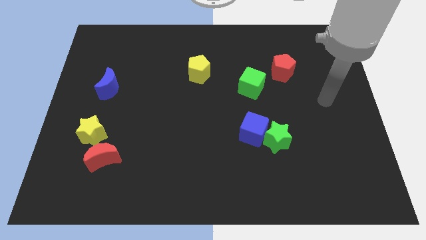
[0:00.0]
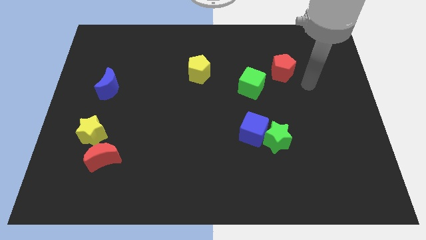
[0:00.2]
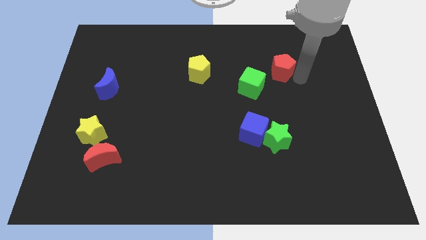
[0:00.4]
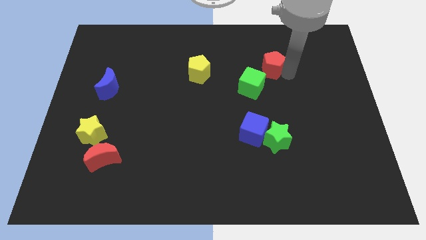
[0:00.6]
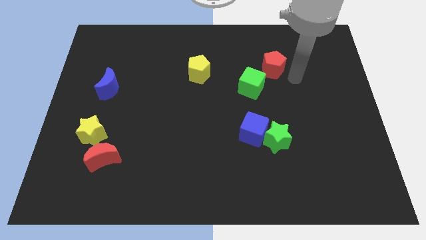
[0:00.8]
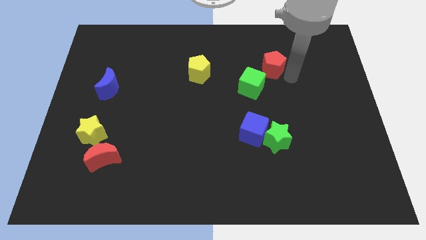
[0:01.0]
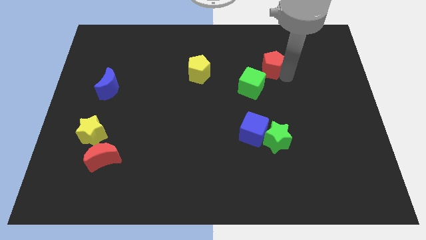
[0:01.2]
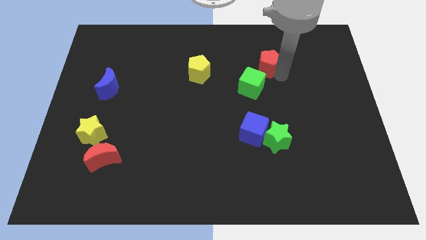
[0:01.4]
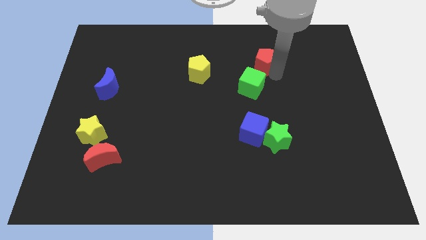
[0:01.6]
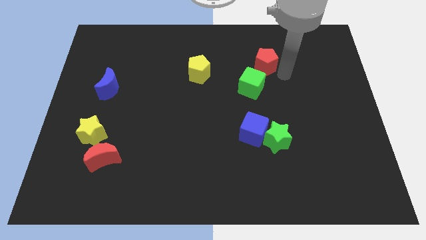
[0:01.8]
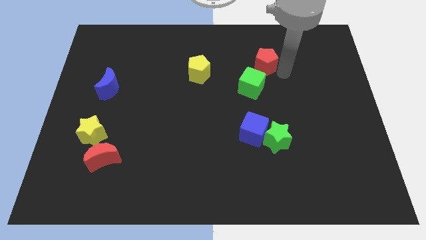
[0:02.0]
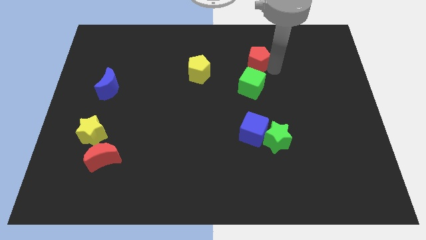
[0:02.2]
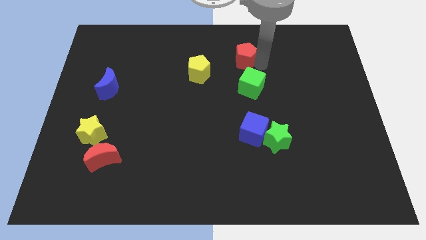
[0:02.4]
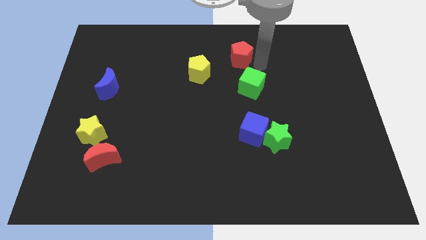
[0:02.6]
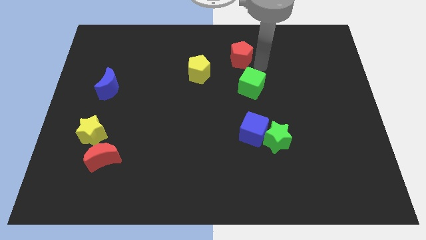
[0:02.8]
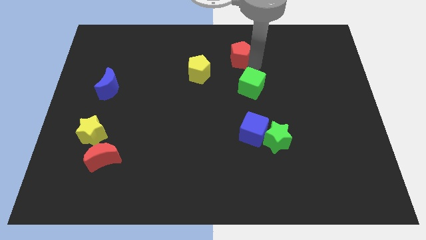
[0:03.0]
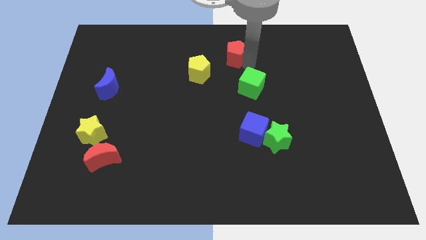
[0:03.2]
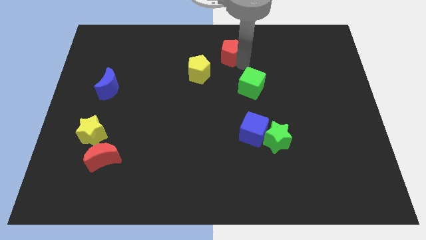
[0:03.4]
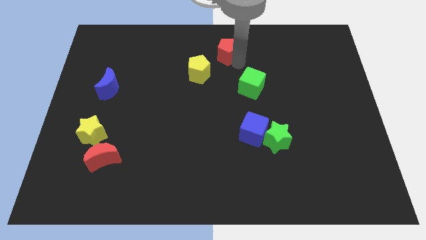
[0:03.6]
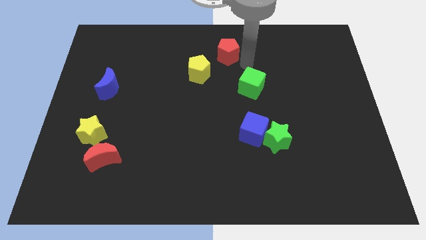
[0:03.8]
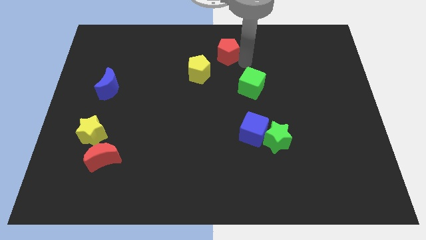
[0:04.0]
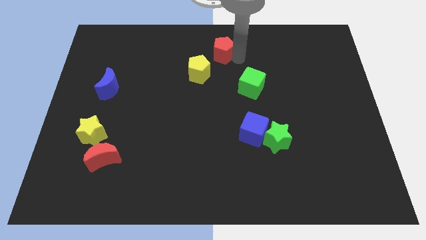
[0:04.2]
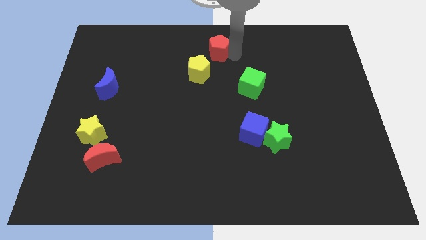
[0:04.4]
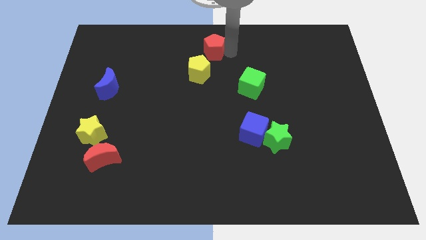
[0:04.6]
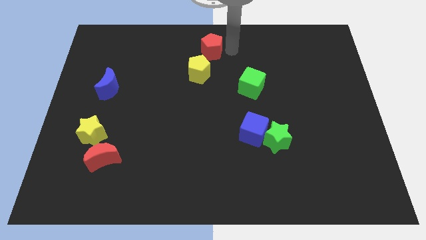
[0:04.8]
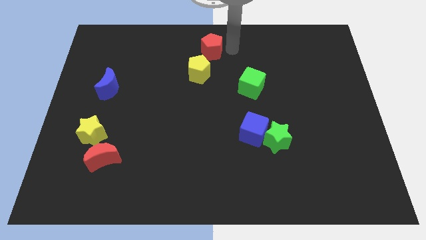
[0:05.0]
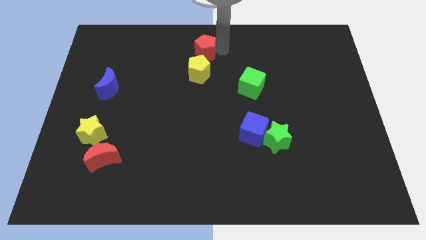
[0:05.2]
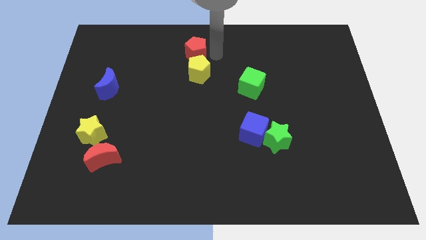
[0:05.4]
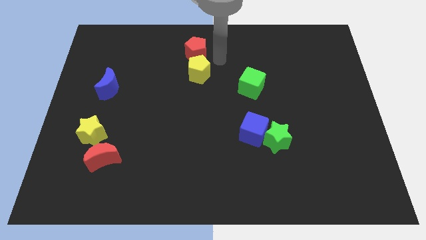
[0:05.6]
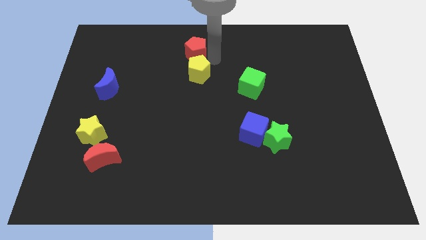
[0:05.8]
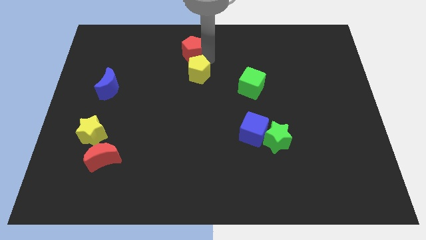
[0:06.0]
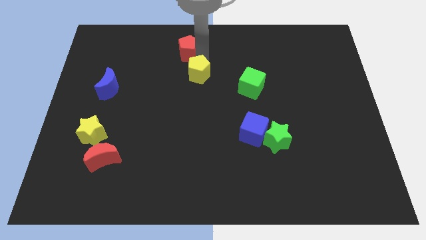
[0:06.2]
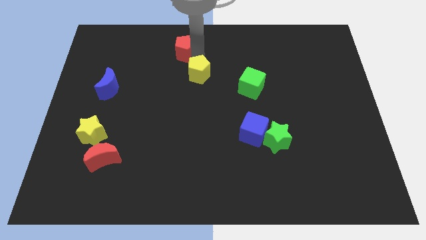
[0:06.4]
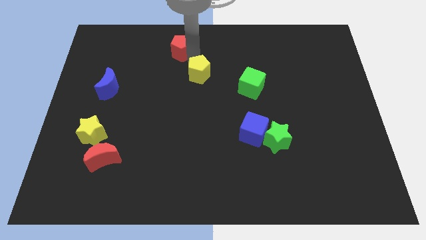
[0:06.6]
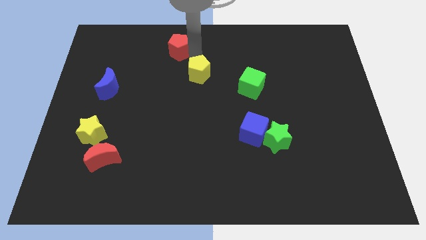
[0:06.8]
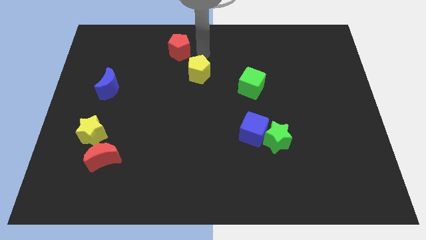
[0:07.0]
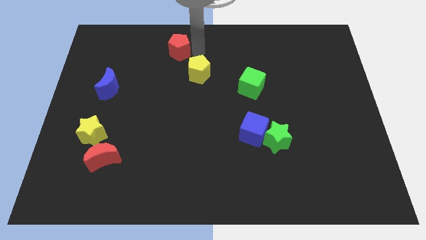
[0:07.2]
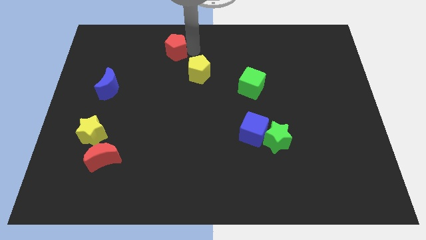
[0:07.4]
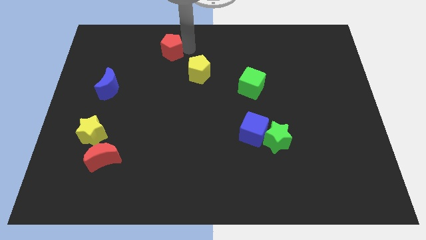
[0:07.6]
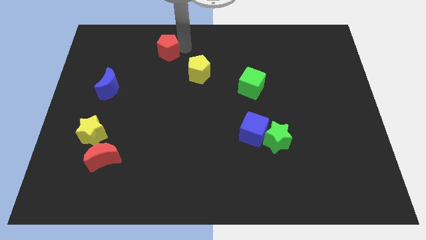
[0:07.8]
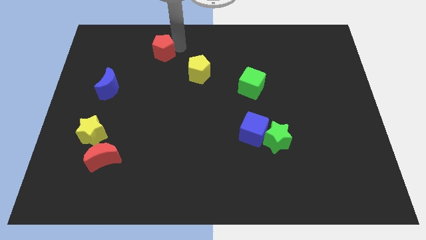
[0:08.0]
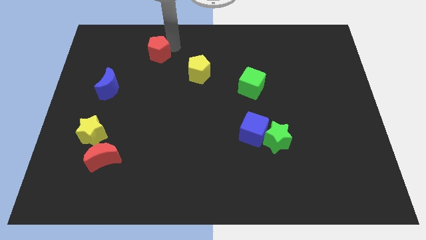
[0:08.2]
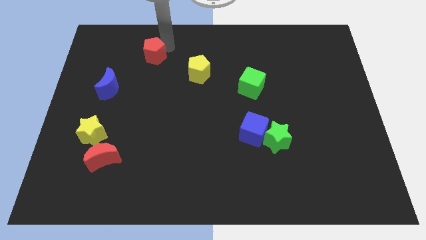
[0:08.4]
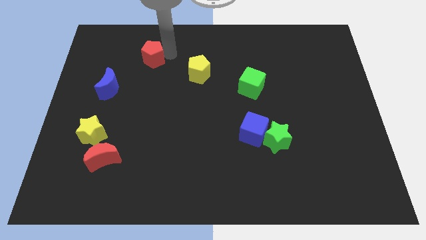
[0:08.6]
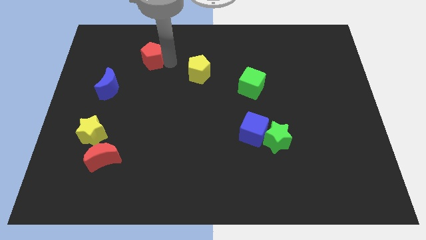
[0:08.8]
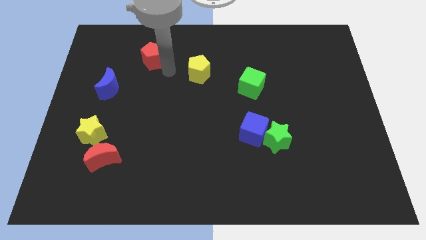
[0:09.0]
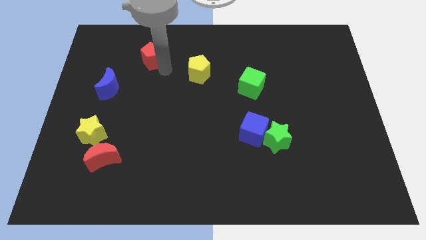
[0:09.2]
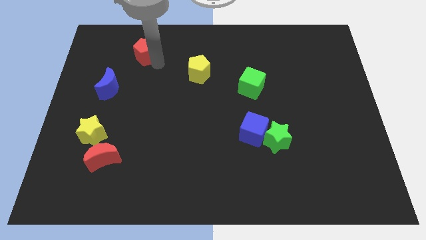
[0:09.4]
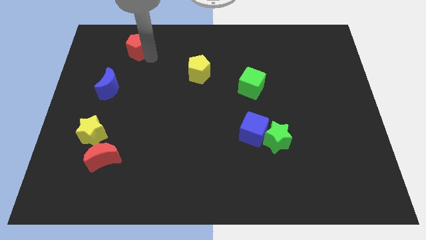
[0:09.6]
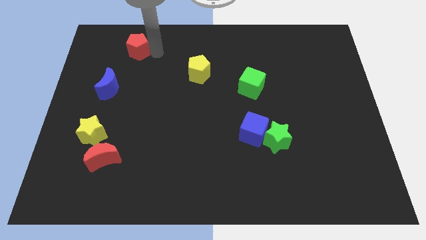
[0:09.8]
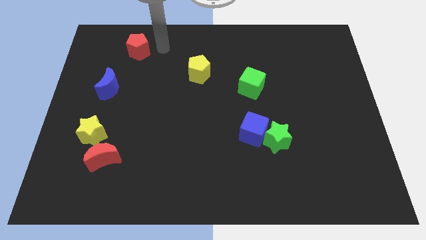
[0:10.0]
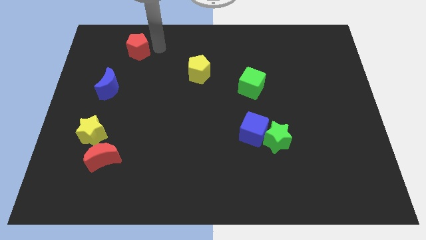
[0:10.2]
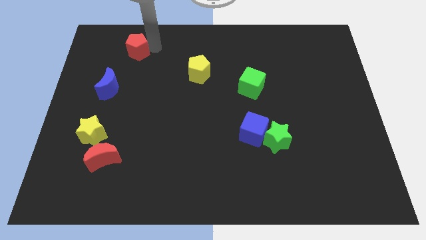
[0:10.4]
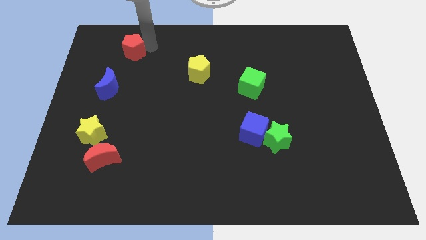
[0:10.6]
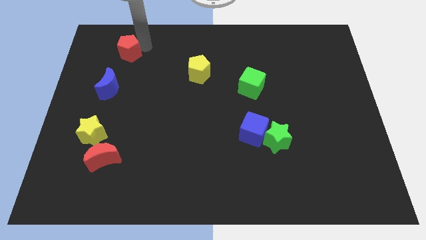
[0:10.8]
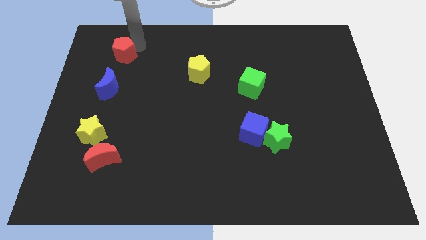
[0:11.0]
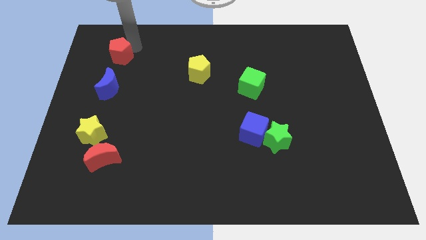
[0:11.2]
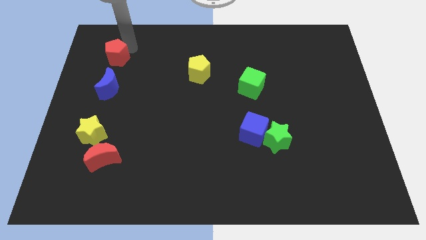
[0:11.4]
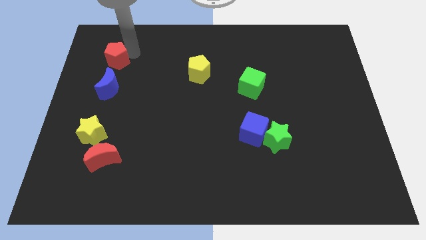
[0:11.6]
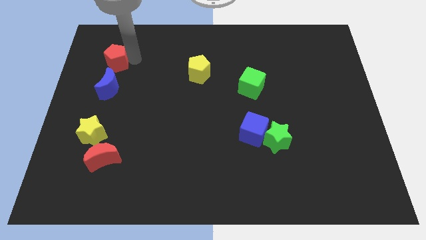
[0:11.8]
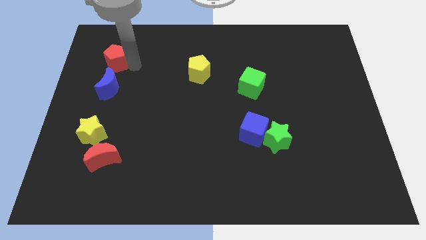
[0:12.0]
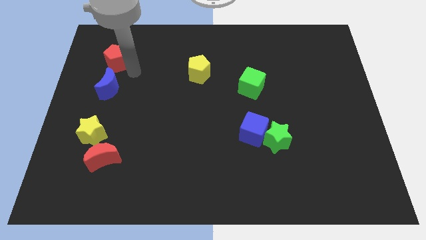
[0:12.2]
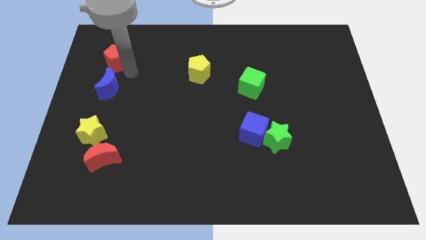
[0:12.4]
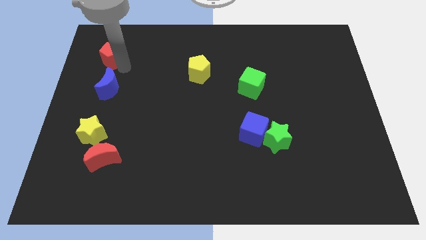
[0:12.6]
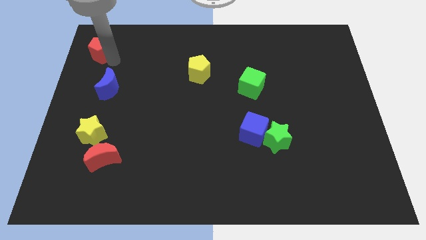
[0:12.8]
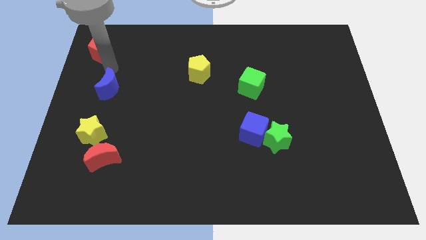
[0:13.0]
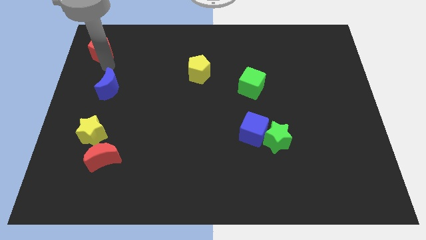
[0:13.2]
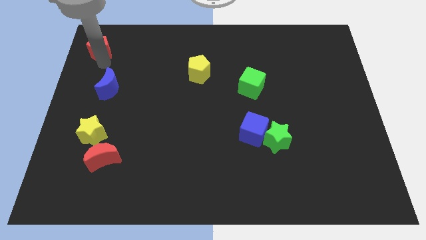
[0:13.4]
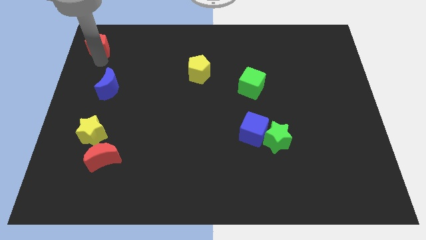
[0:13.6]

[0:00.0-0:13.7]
slide the red pentagon to the upper left corner

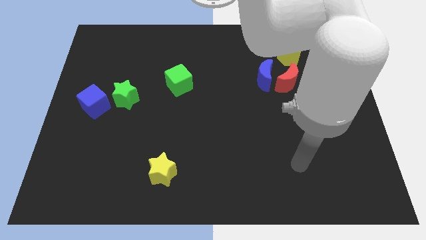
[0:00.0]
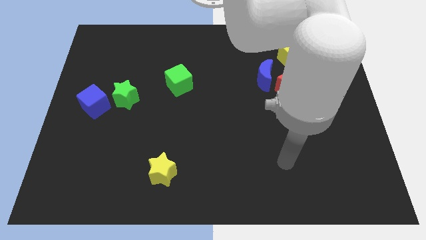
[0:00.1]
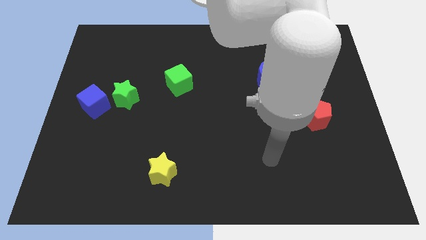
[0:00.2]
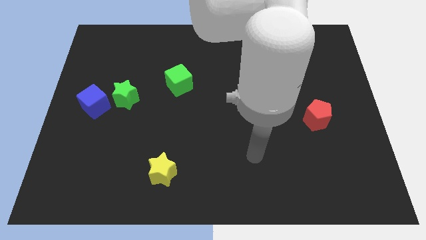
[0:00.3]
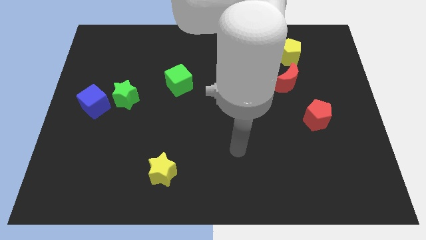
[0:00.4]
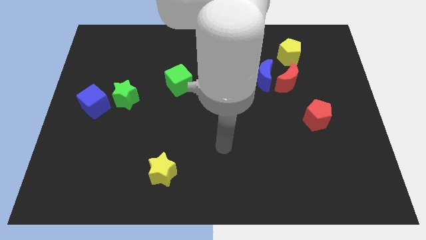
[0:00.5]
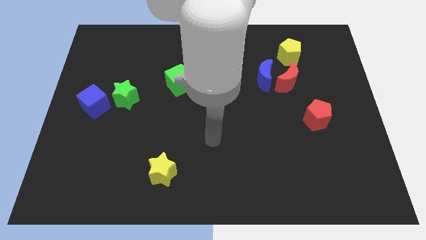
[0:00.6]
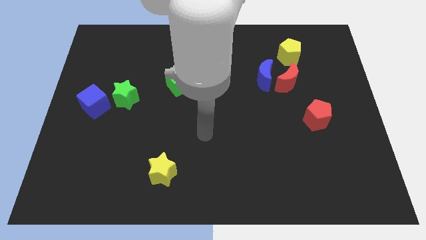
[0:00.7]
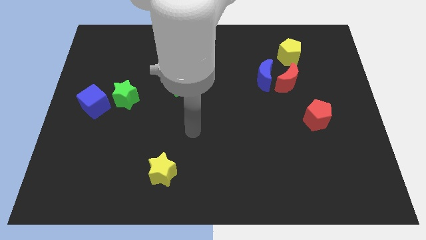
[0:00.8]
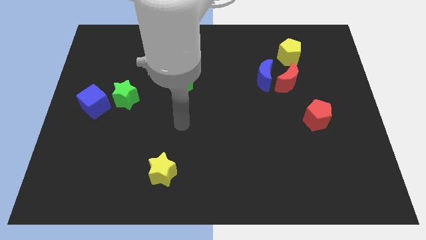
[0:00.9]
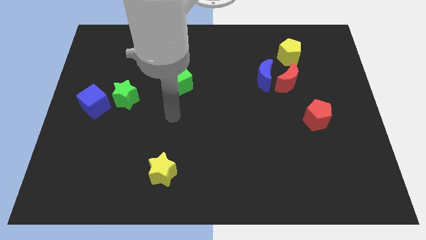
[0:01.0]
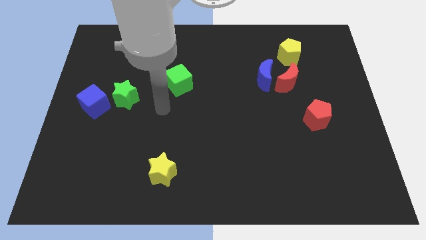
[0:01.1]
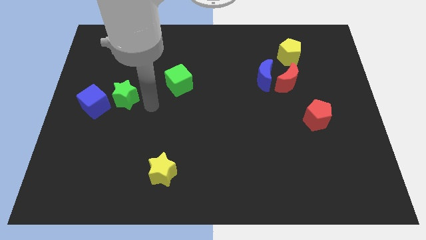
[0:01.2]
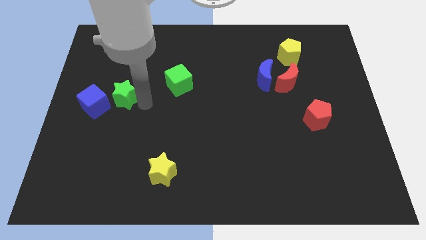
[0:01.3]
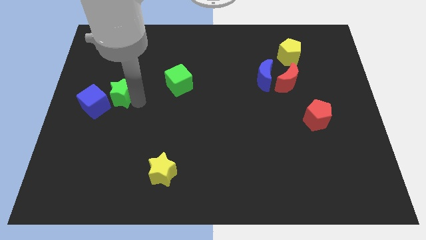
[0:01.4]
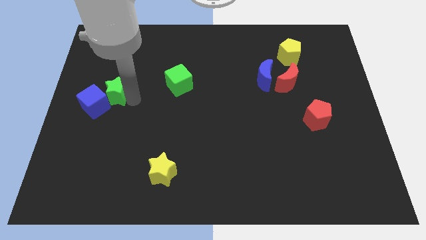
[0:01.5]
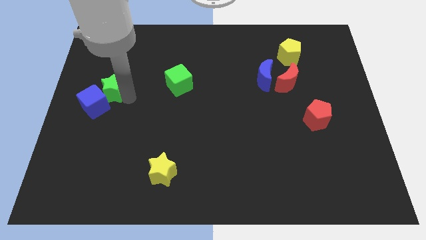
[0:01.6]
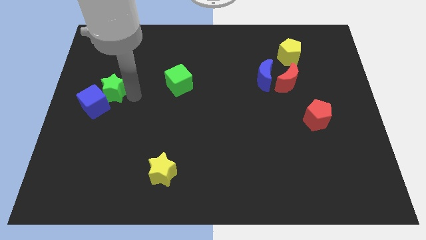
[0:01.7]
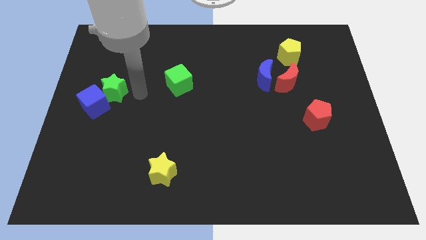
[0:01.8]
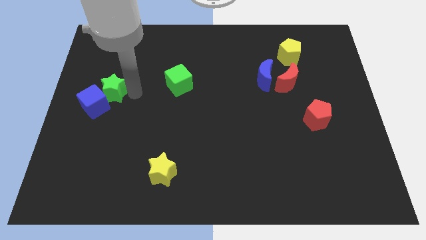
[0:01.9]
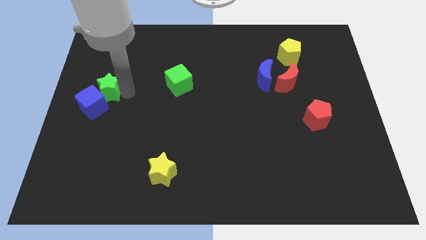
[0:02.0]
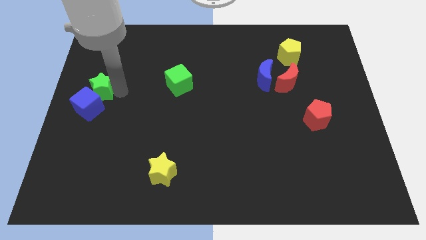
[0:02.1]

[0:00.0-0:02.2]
push the green star to the left side of the board
